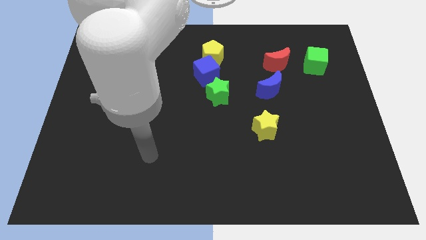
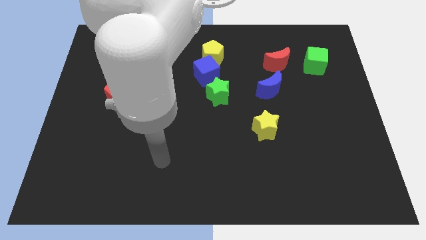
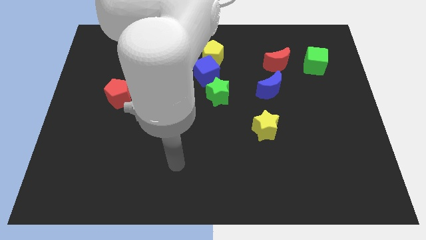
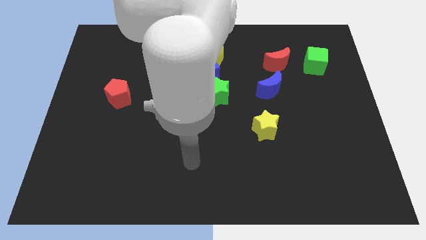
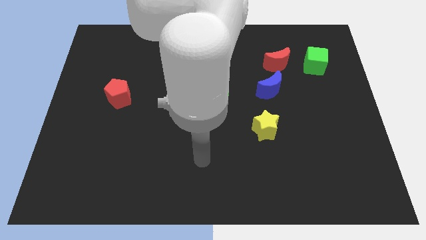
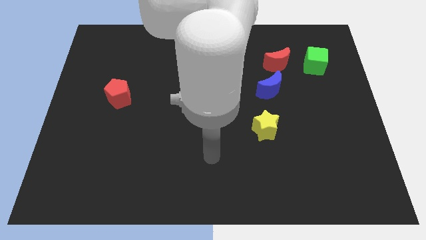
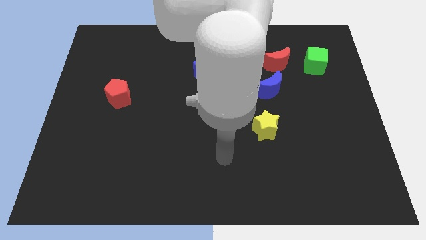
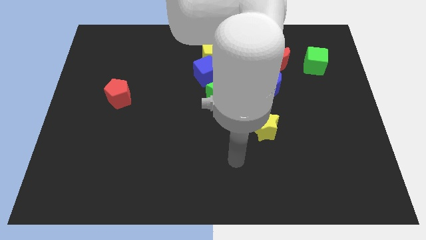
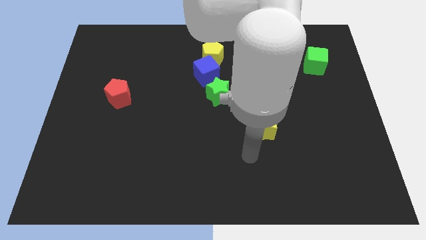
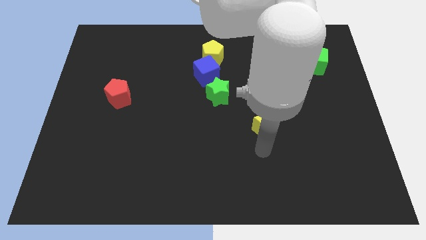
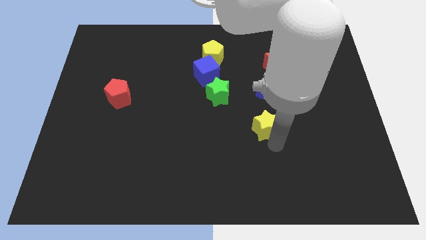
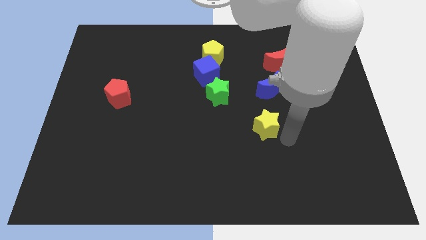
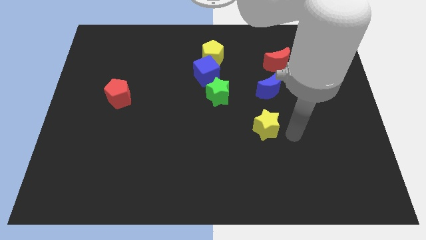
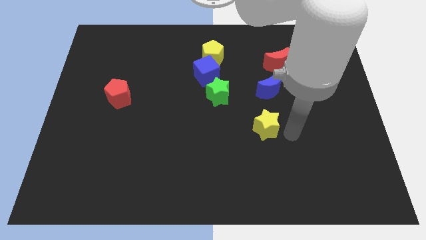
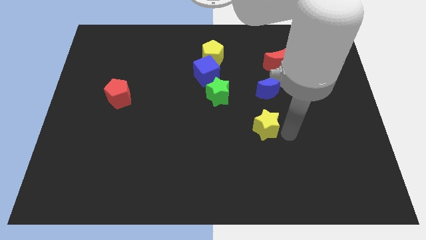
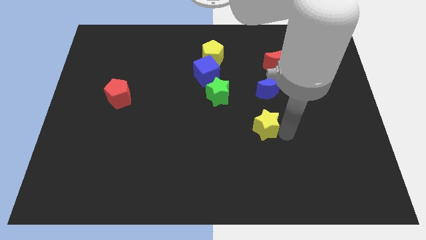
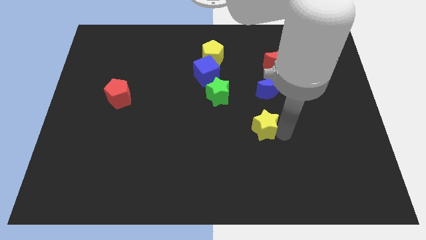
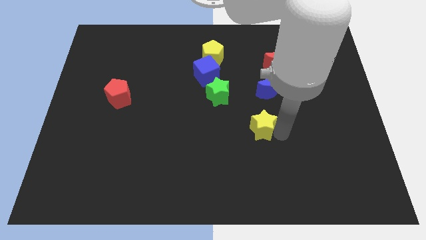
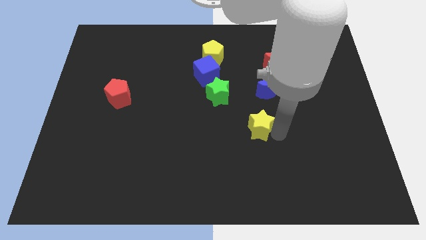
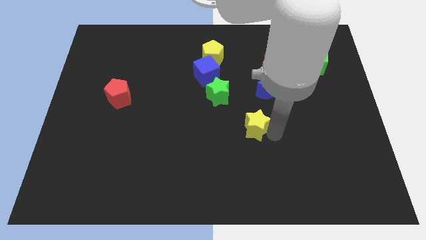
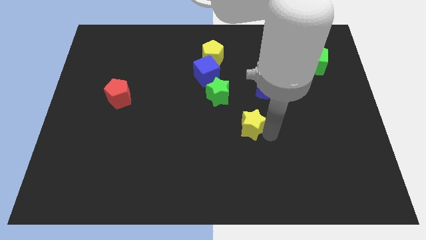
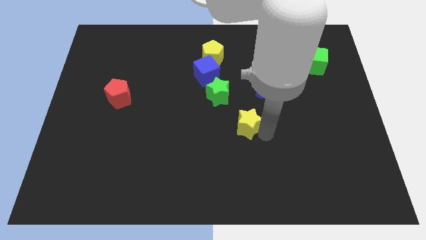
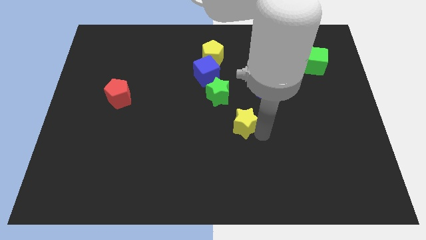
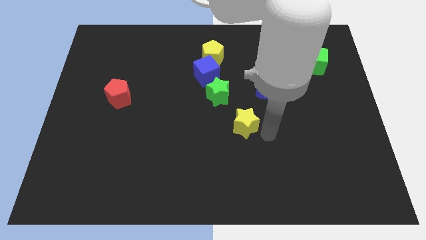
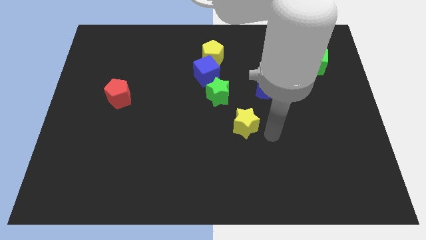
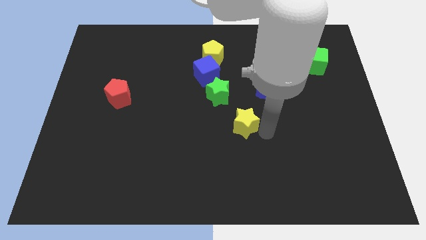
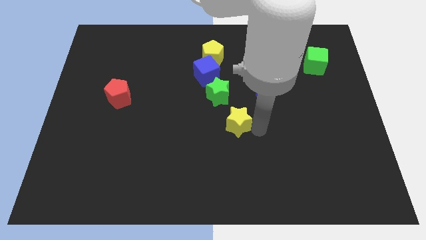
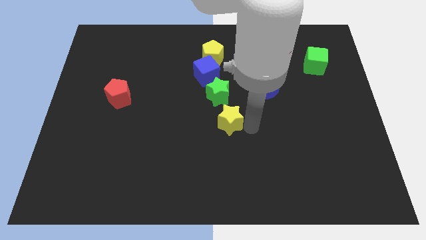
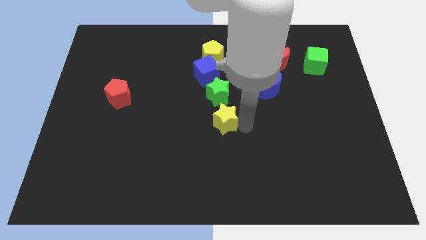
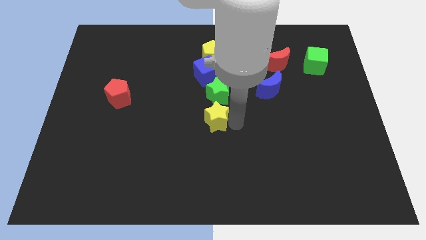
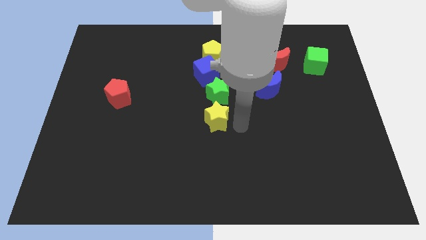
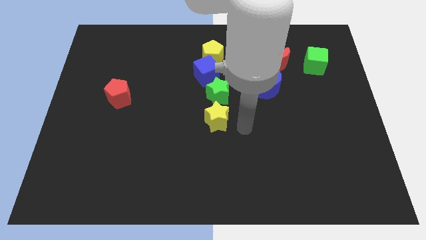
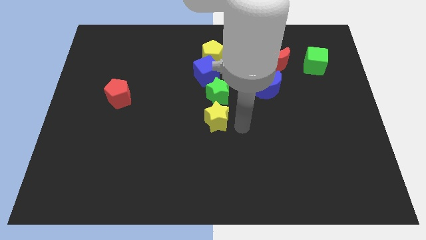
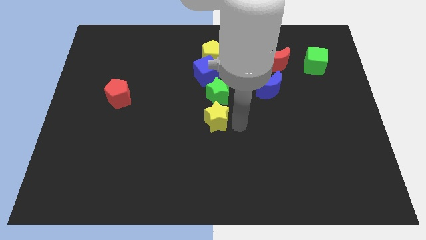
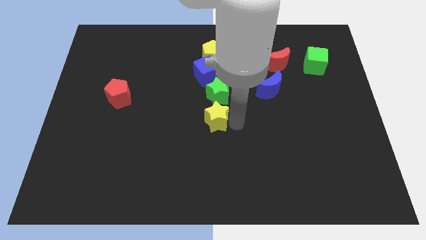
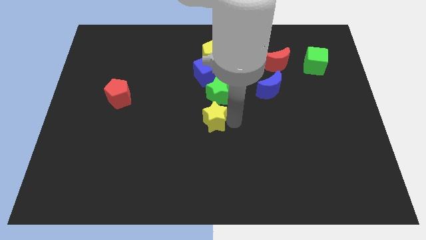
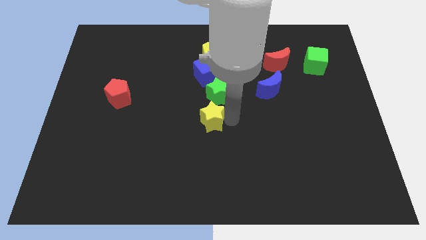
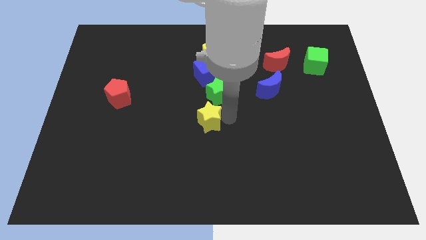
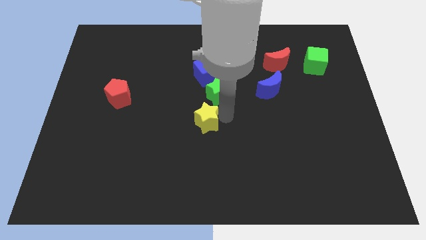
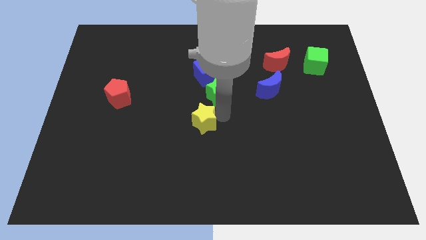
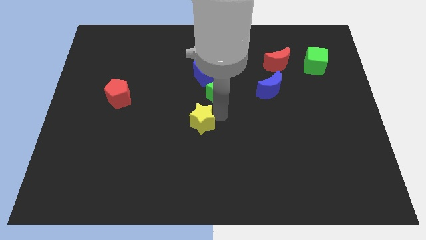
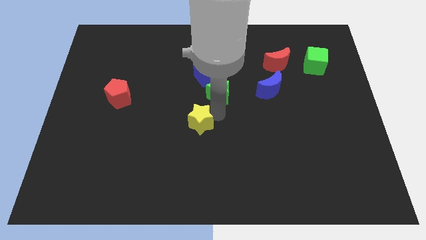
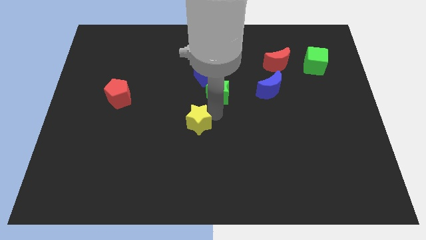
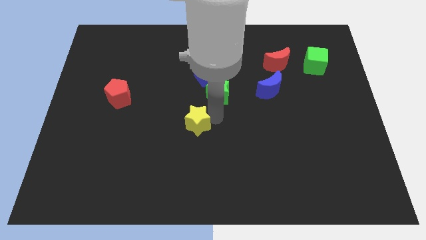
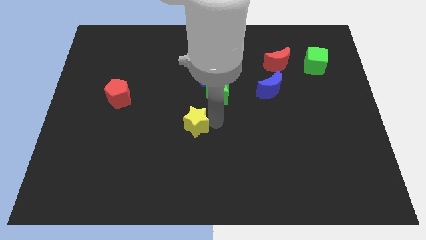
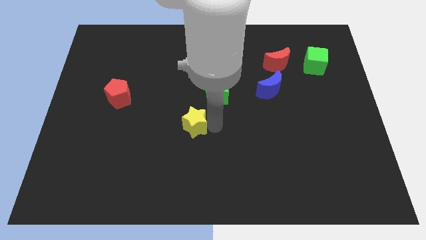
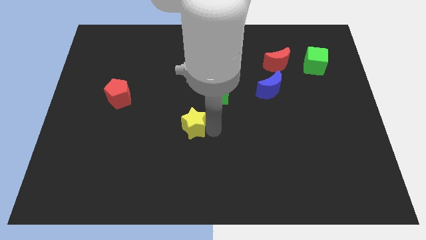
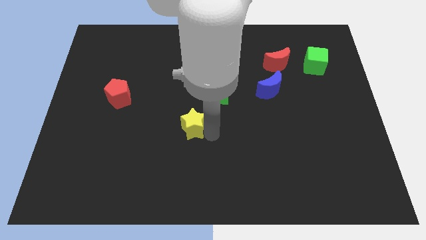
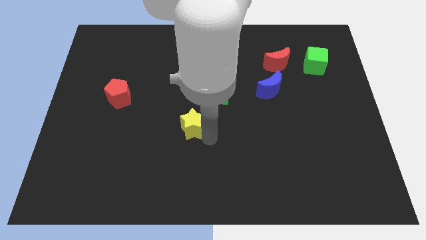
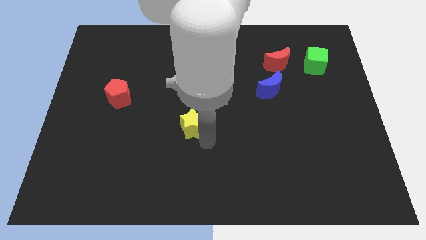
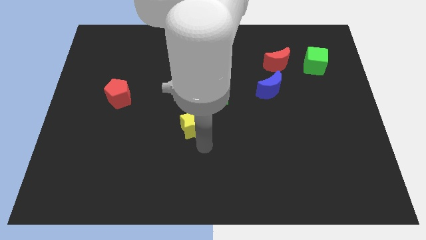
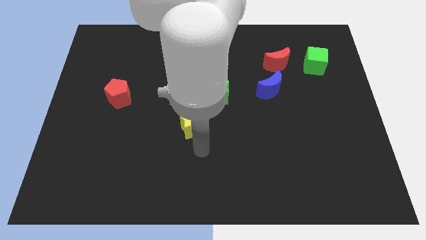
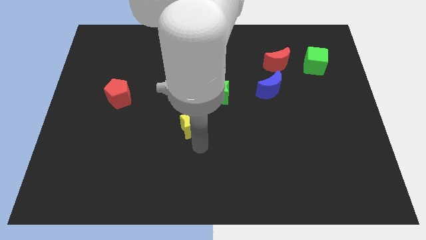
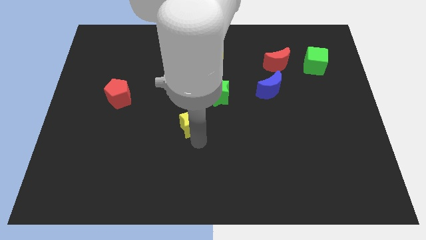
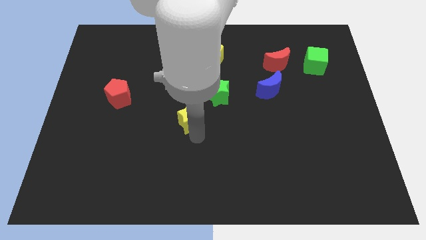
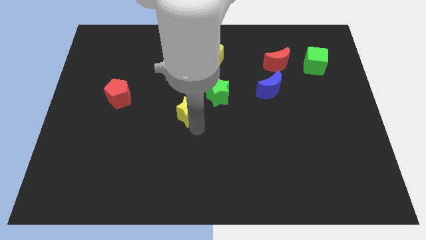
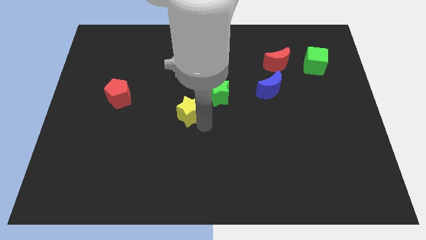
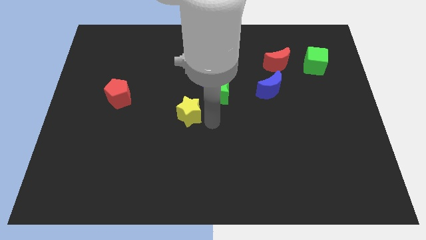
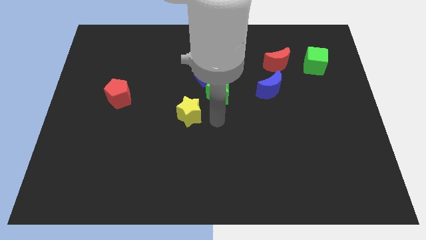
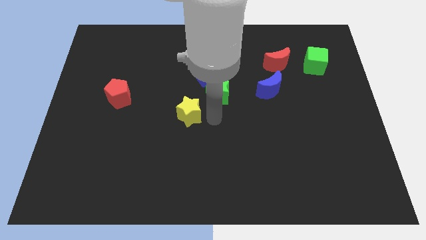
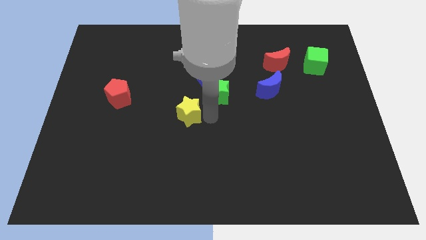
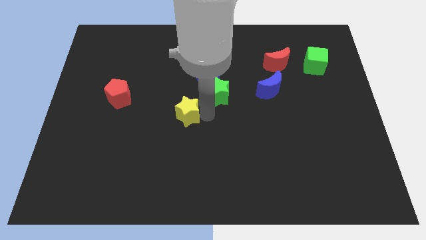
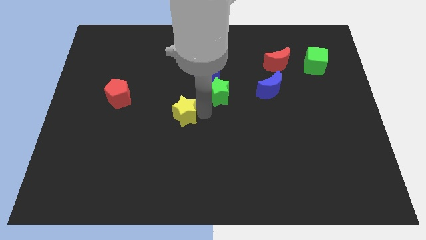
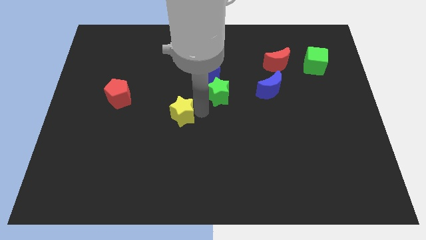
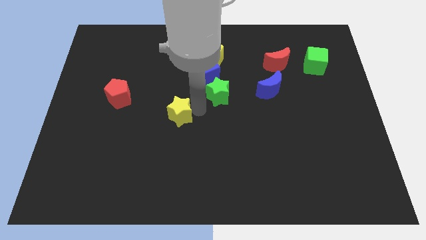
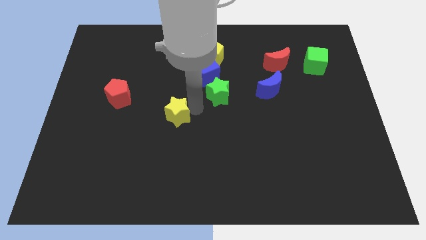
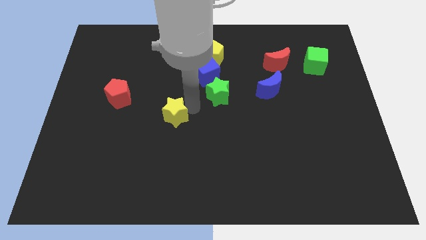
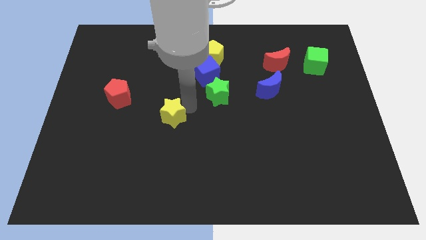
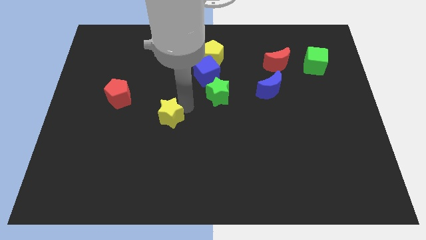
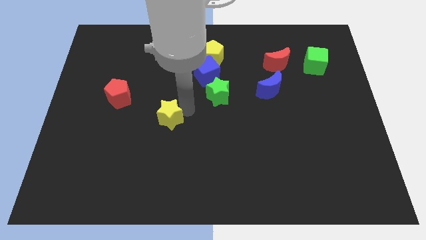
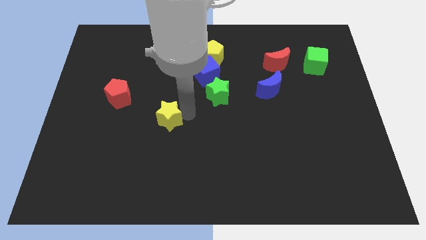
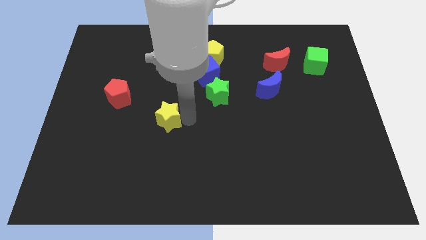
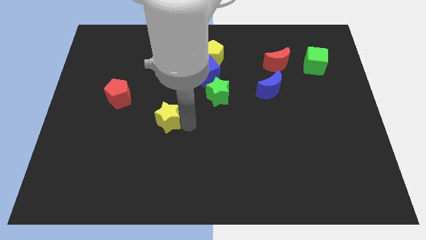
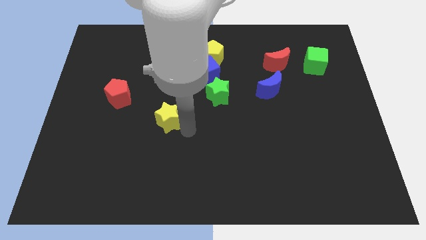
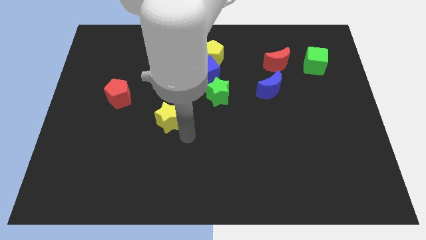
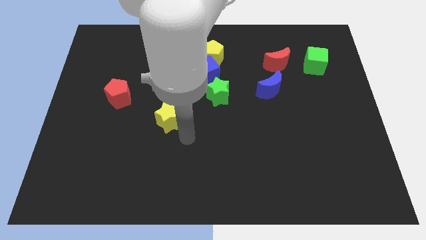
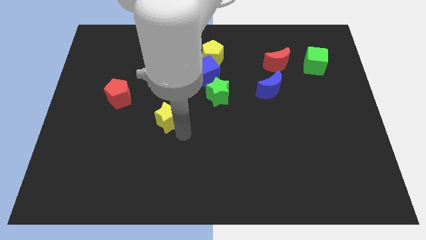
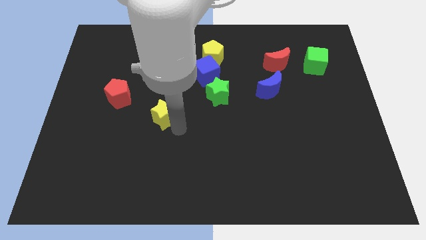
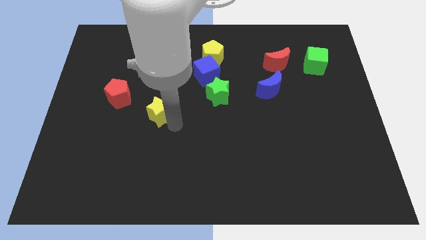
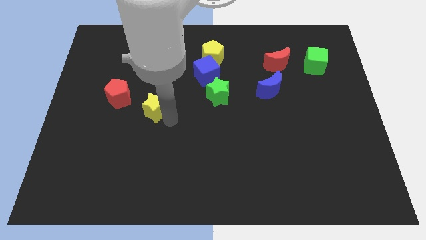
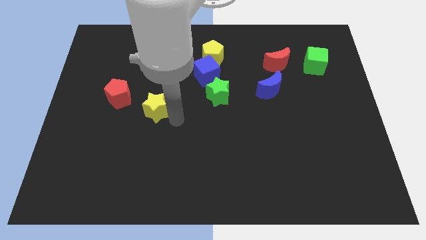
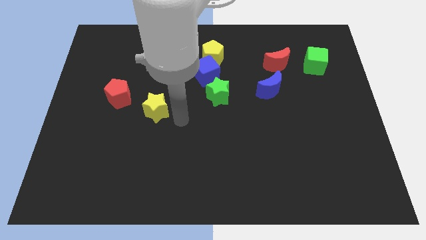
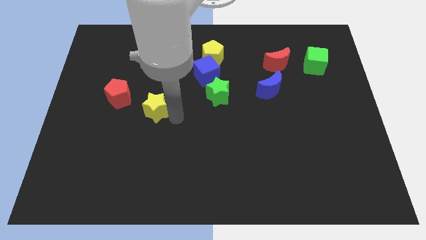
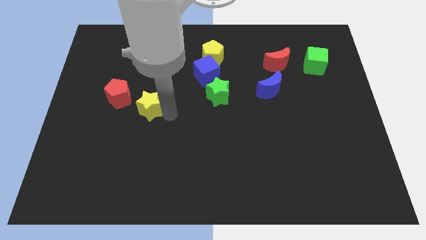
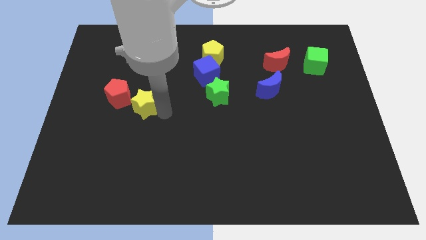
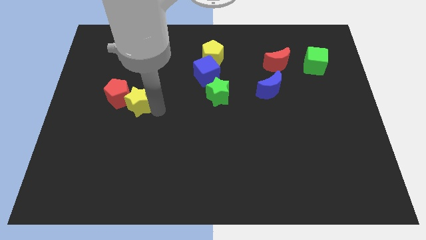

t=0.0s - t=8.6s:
move the yellow star towards the red pentagon
